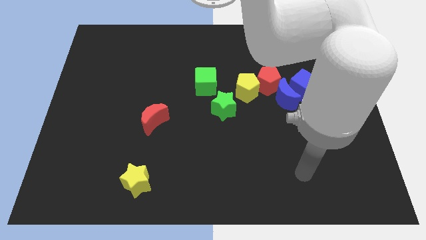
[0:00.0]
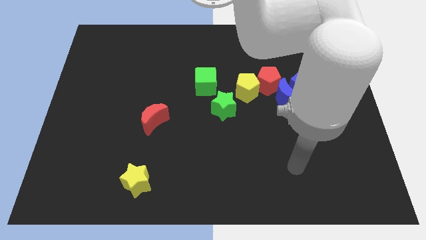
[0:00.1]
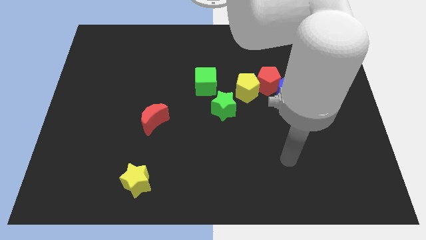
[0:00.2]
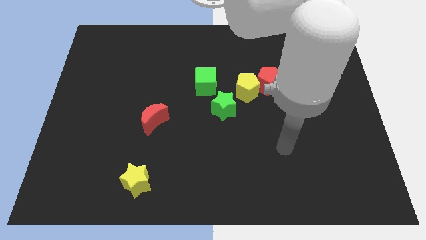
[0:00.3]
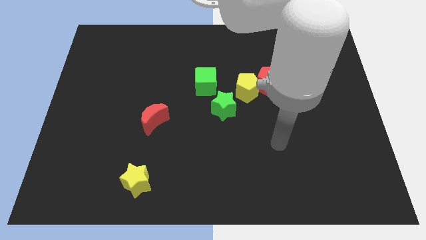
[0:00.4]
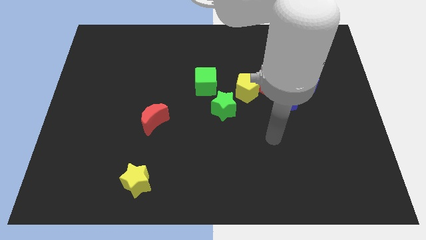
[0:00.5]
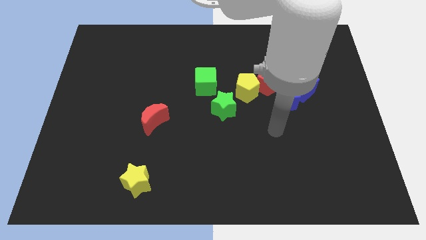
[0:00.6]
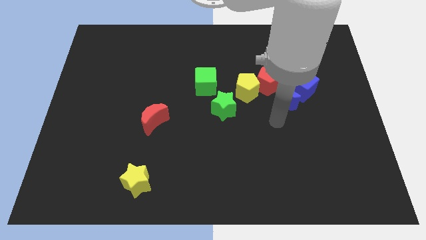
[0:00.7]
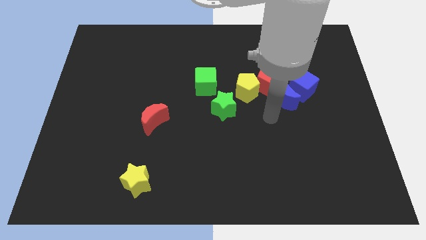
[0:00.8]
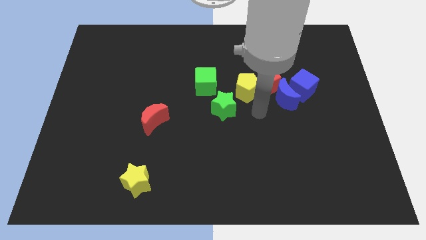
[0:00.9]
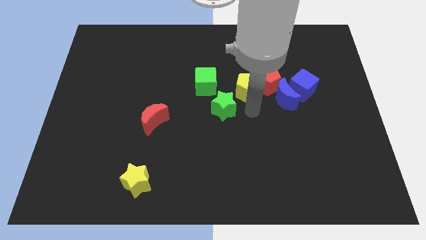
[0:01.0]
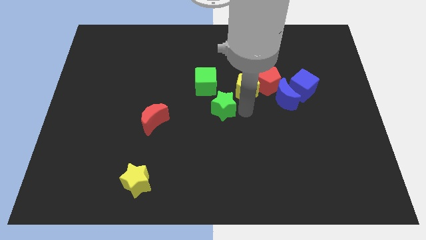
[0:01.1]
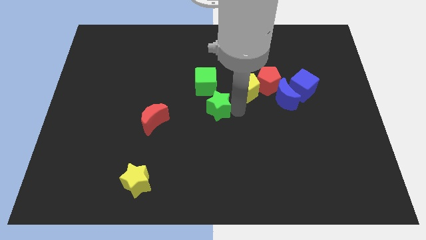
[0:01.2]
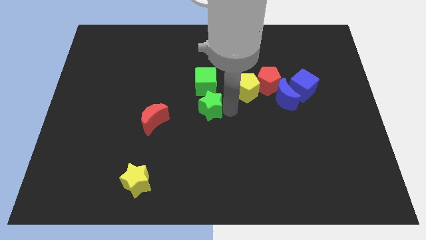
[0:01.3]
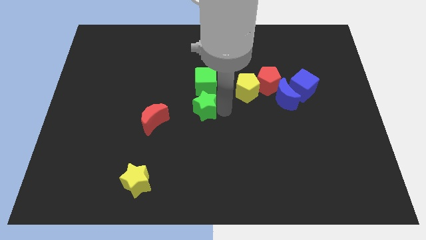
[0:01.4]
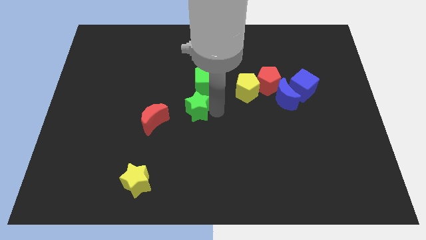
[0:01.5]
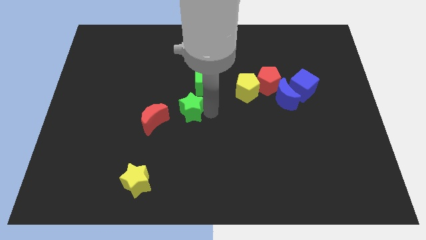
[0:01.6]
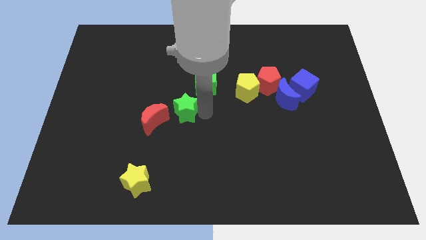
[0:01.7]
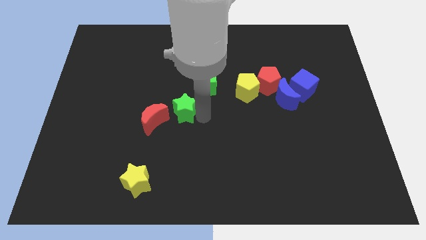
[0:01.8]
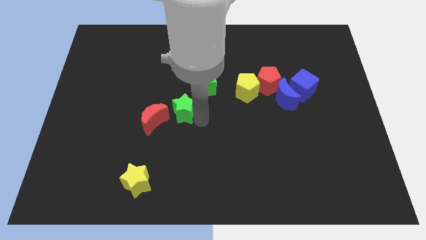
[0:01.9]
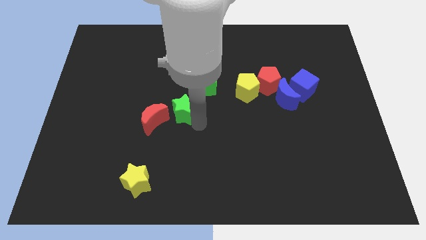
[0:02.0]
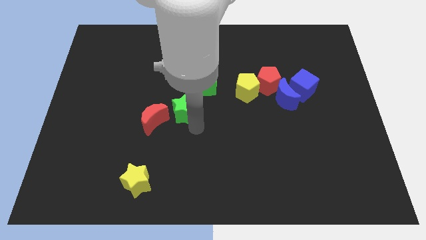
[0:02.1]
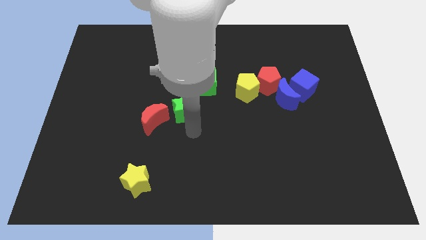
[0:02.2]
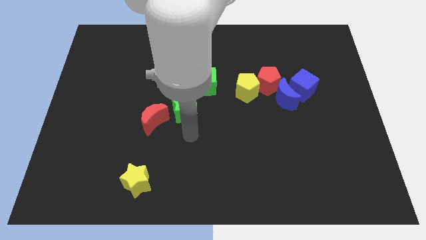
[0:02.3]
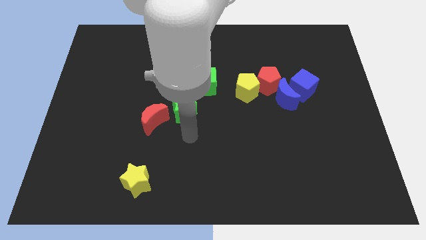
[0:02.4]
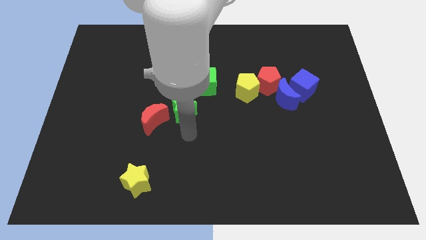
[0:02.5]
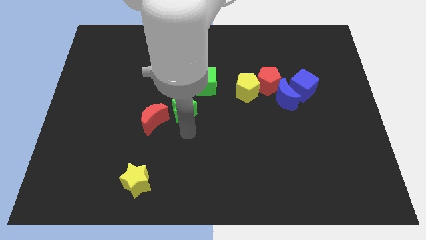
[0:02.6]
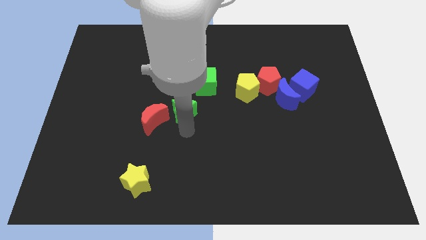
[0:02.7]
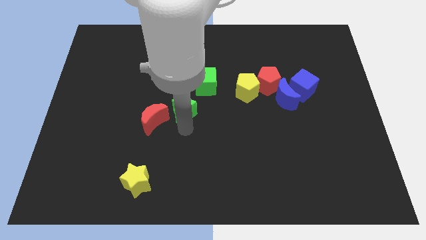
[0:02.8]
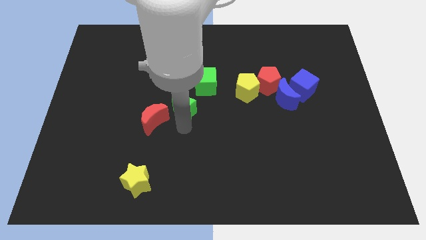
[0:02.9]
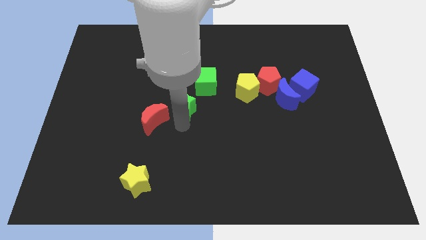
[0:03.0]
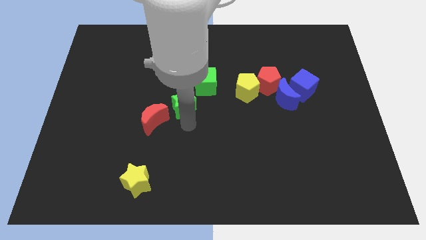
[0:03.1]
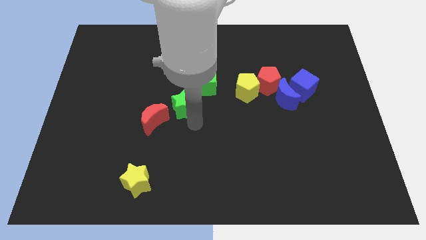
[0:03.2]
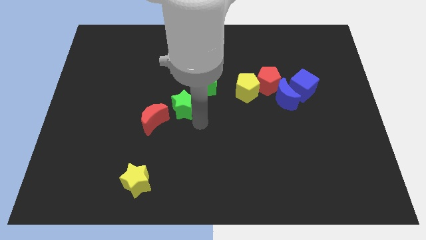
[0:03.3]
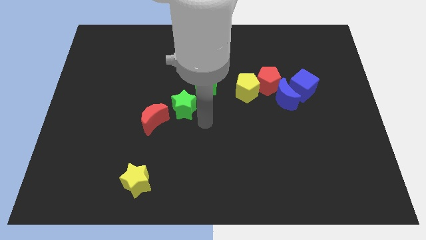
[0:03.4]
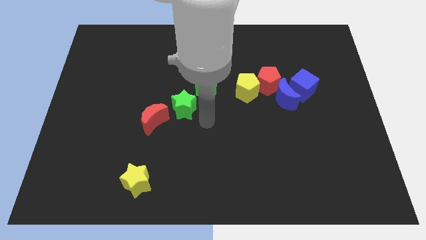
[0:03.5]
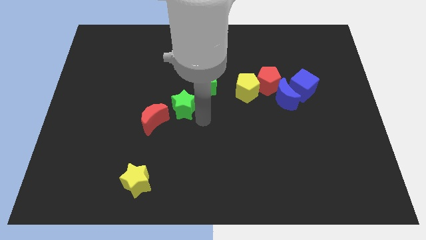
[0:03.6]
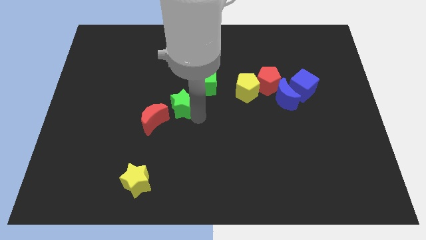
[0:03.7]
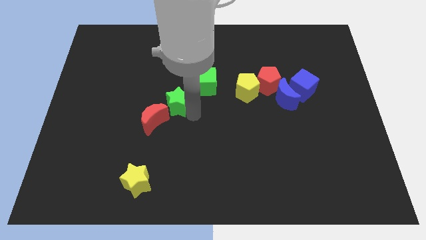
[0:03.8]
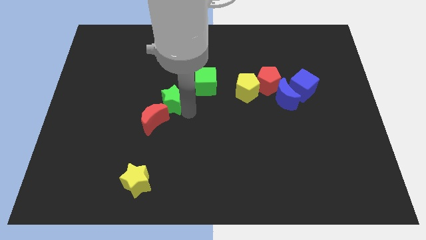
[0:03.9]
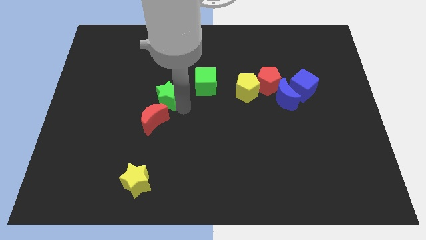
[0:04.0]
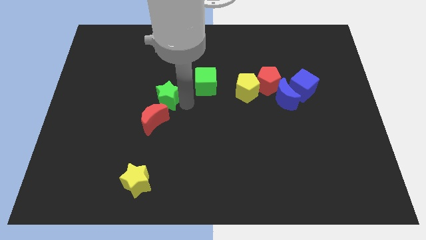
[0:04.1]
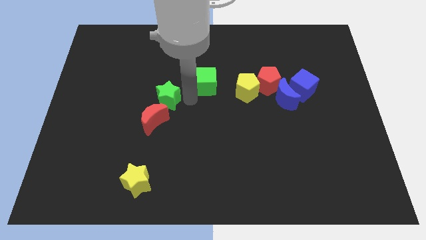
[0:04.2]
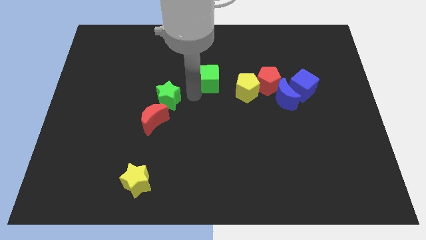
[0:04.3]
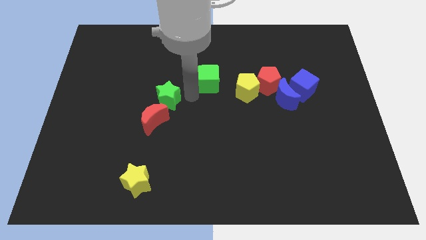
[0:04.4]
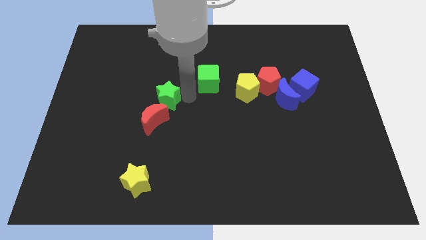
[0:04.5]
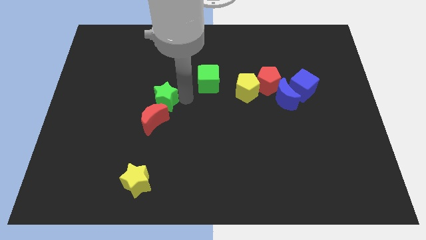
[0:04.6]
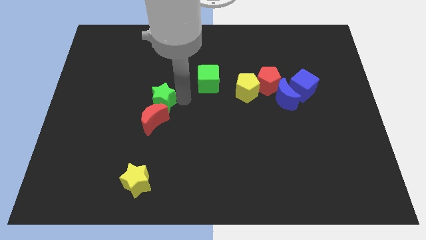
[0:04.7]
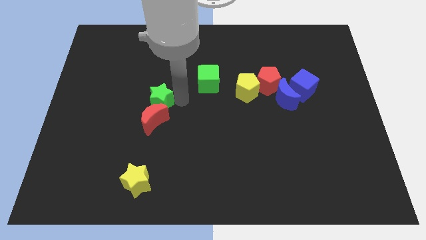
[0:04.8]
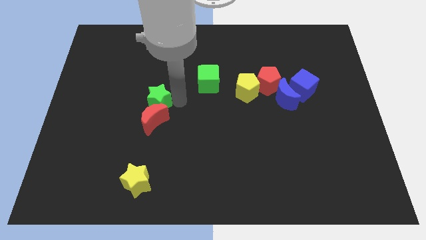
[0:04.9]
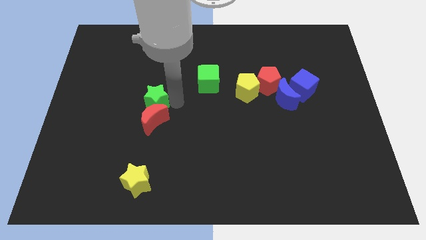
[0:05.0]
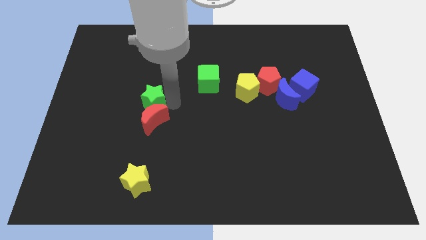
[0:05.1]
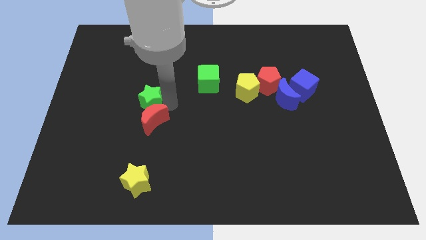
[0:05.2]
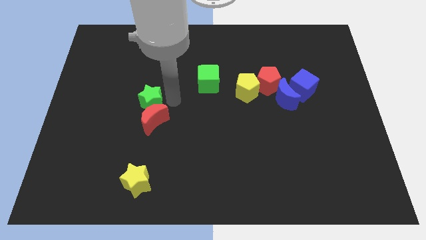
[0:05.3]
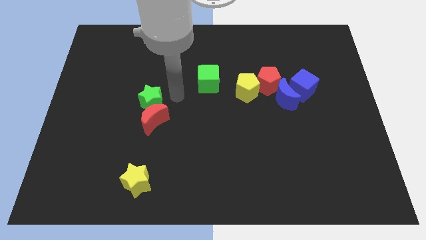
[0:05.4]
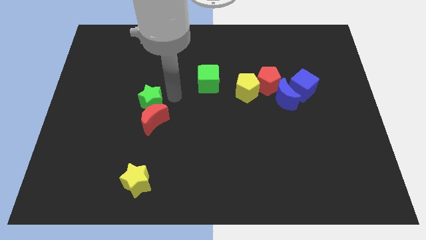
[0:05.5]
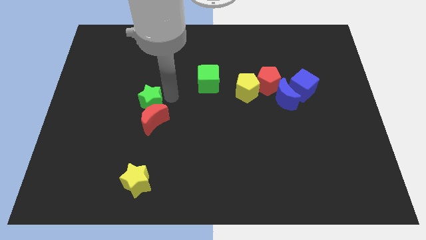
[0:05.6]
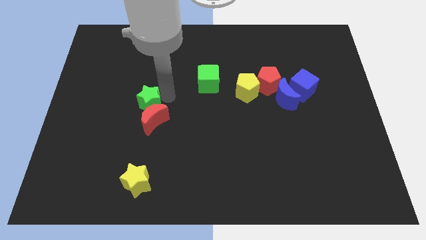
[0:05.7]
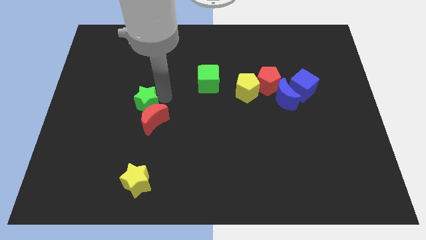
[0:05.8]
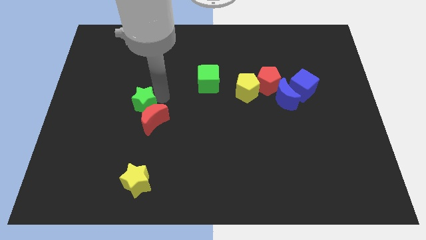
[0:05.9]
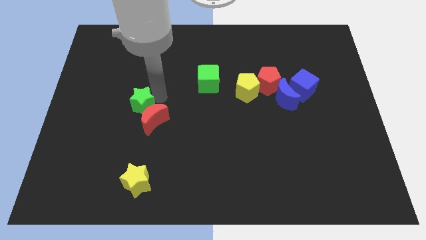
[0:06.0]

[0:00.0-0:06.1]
slide the green star to the left side of the red moon
